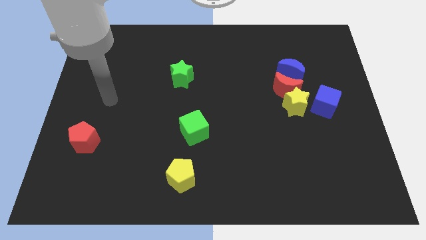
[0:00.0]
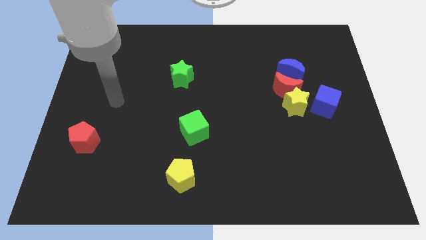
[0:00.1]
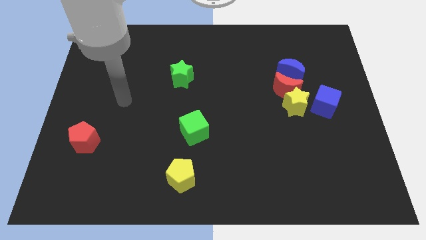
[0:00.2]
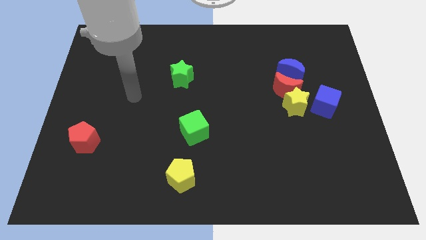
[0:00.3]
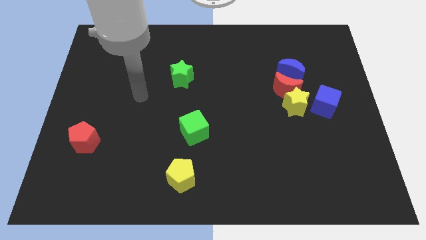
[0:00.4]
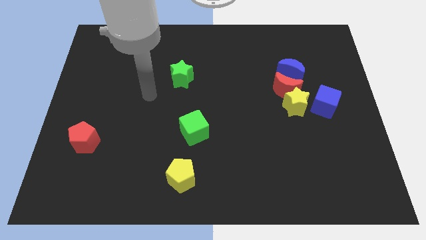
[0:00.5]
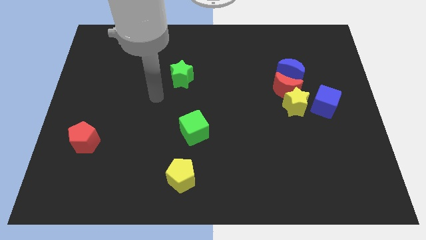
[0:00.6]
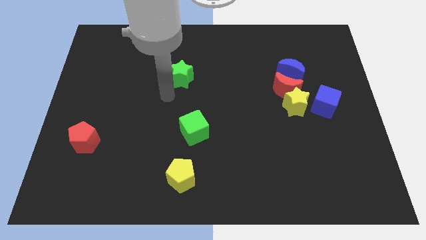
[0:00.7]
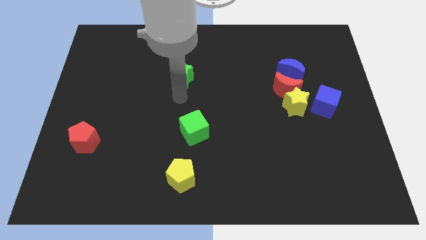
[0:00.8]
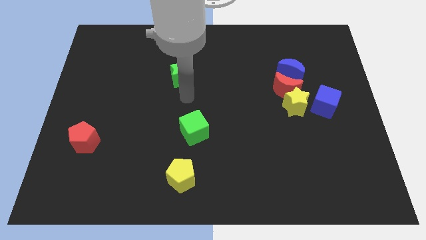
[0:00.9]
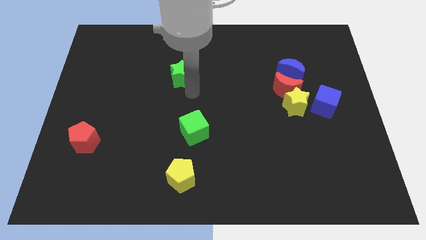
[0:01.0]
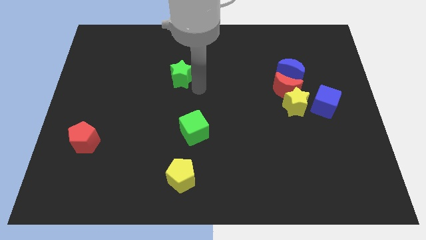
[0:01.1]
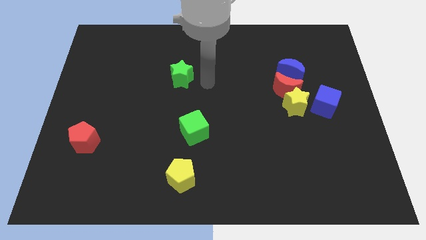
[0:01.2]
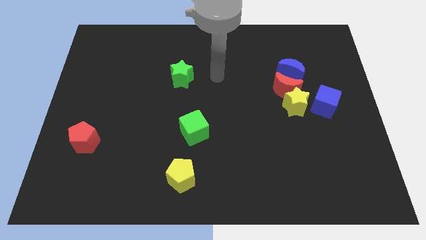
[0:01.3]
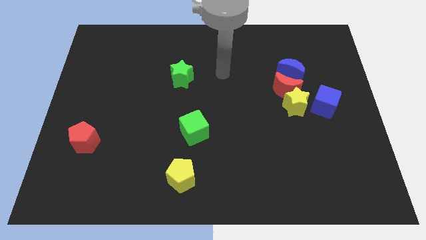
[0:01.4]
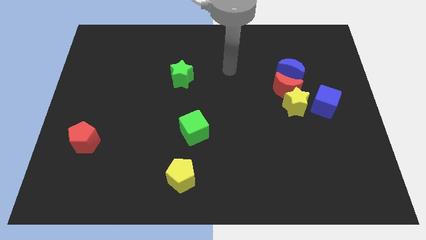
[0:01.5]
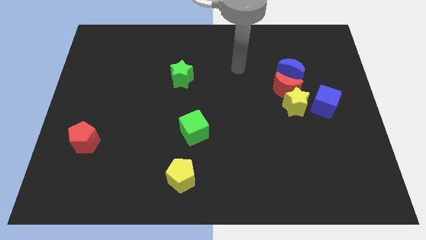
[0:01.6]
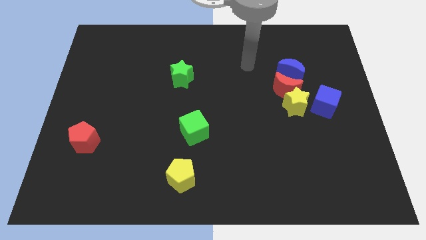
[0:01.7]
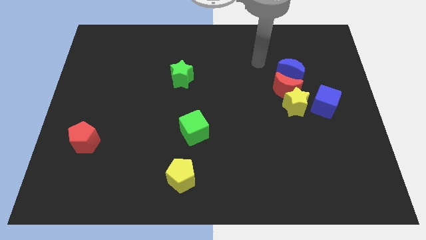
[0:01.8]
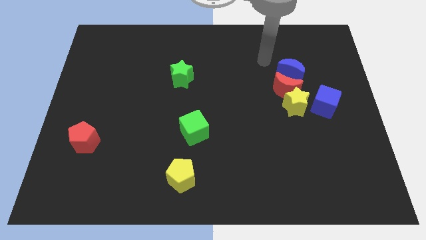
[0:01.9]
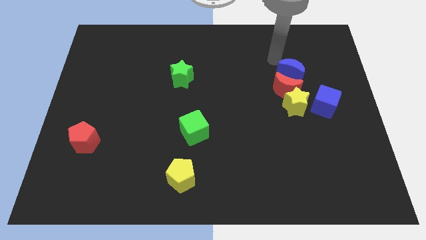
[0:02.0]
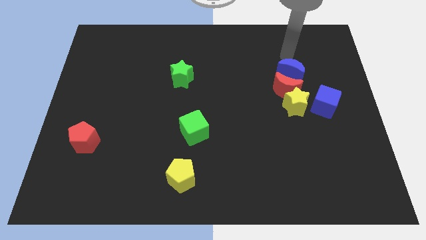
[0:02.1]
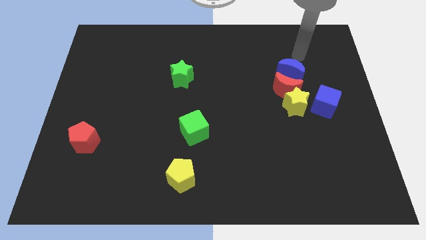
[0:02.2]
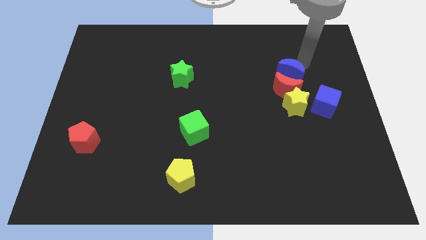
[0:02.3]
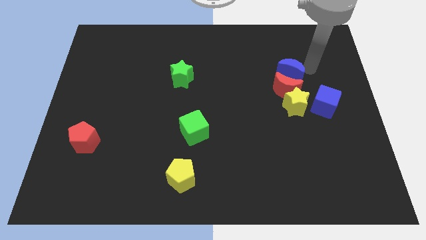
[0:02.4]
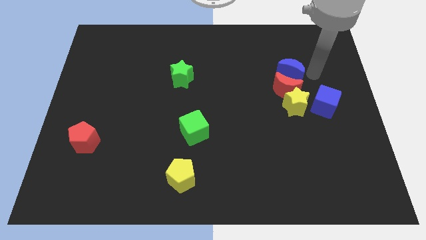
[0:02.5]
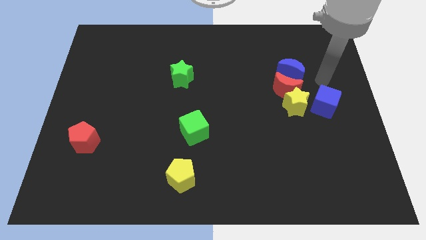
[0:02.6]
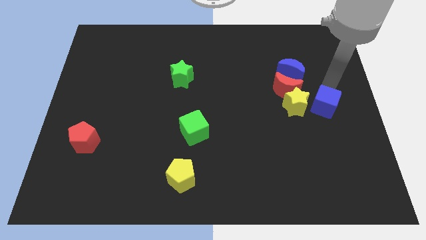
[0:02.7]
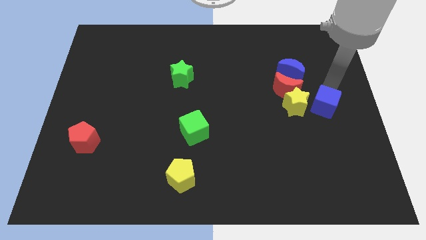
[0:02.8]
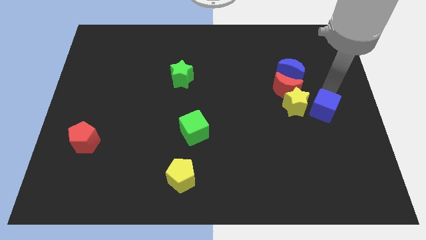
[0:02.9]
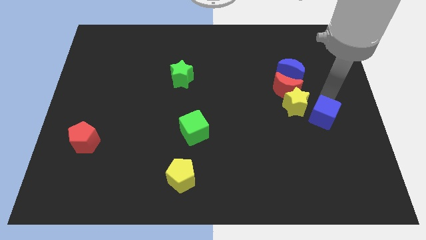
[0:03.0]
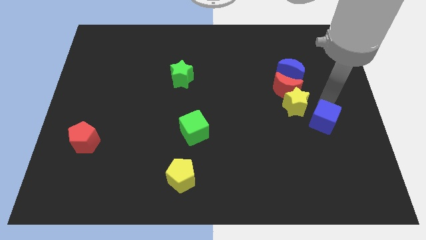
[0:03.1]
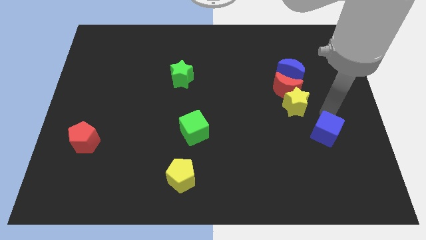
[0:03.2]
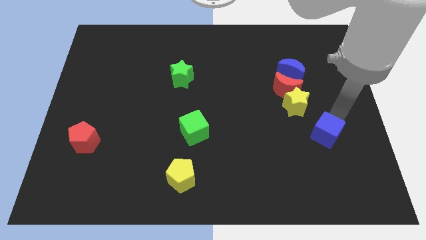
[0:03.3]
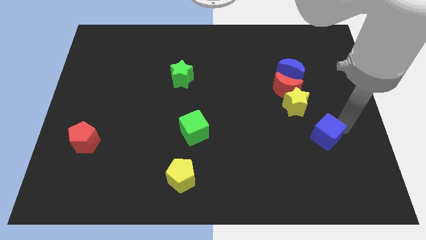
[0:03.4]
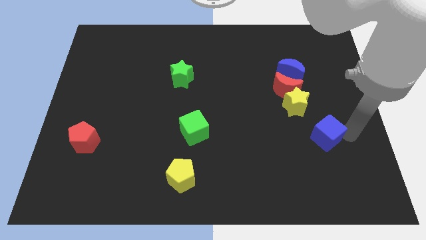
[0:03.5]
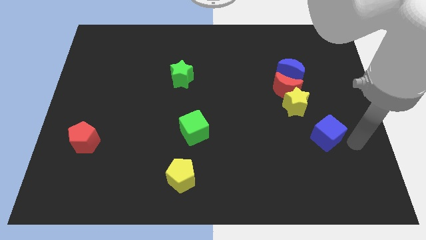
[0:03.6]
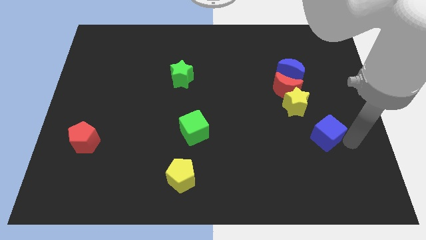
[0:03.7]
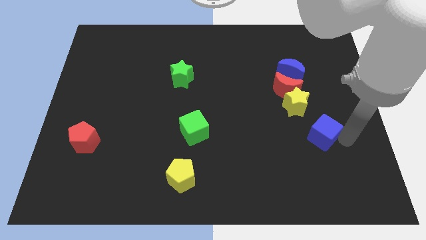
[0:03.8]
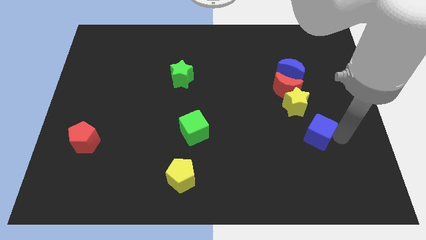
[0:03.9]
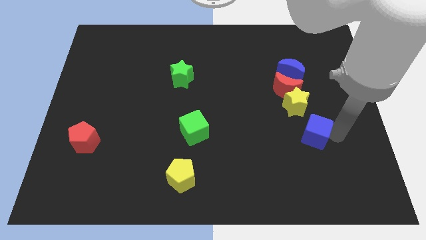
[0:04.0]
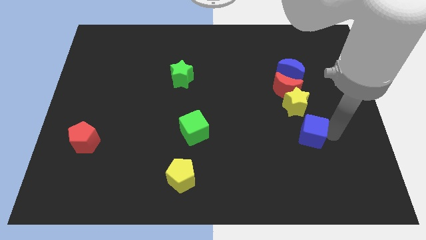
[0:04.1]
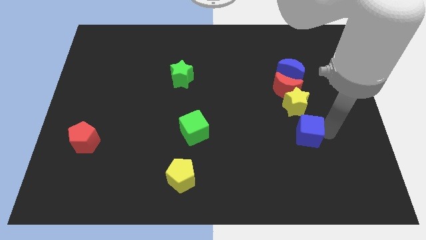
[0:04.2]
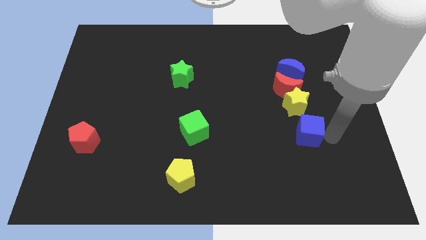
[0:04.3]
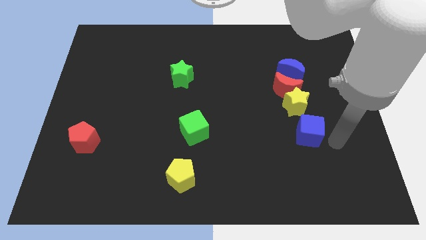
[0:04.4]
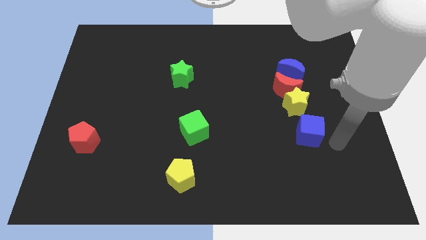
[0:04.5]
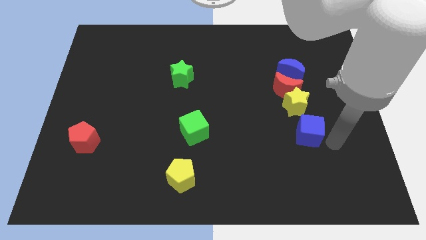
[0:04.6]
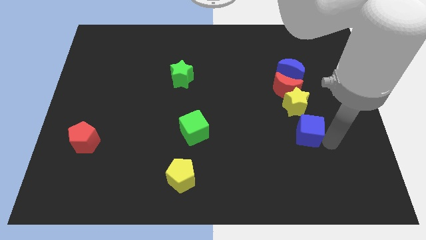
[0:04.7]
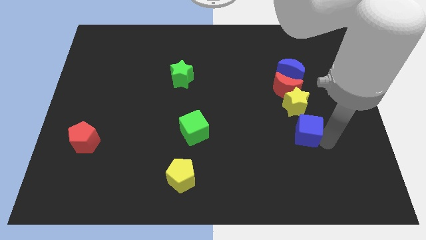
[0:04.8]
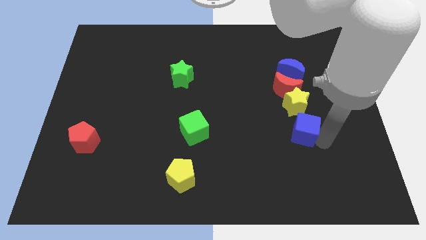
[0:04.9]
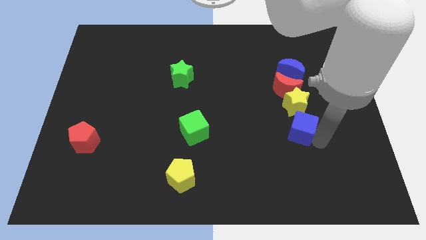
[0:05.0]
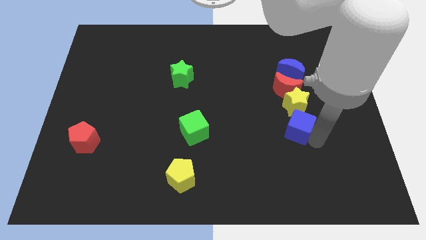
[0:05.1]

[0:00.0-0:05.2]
move the blue cube to the bottom left of the yellow star

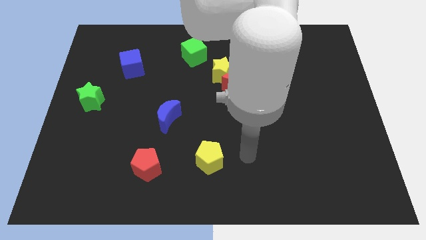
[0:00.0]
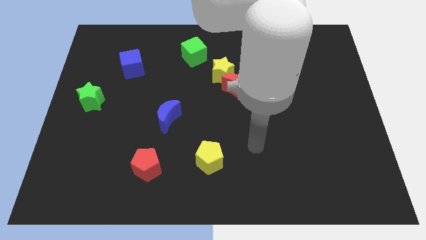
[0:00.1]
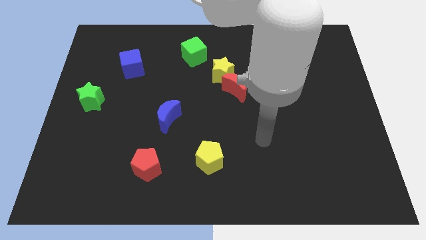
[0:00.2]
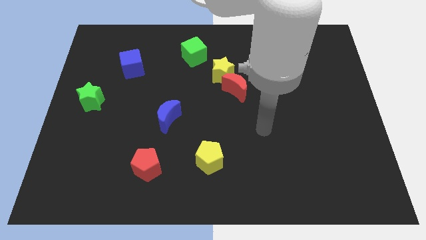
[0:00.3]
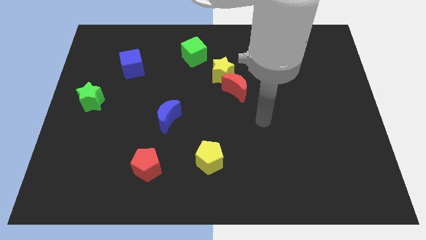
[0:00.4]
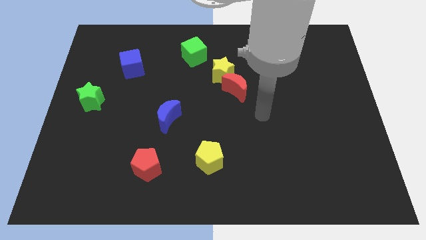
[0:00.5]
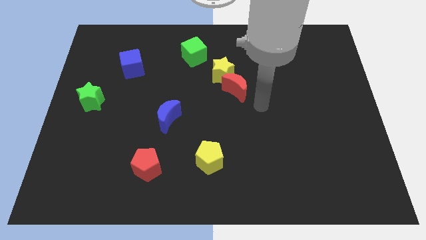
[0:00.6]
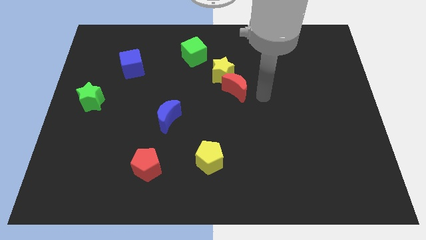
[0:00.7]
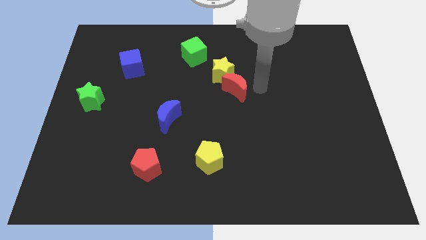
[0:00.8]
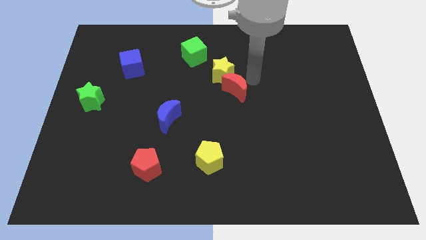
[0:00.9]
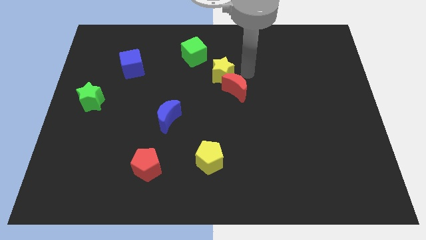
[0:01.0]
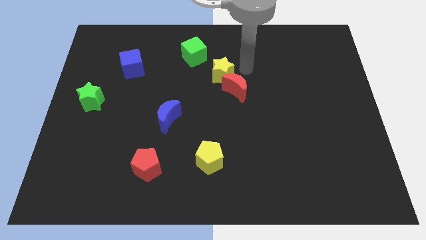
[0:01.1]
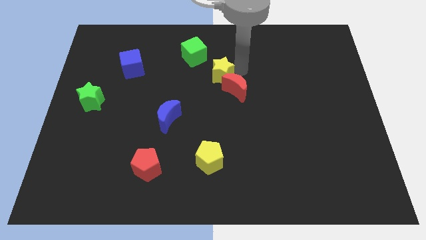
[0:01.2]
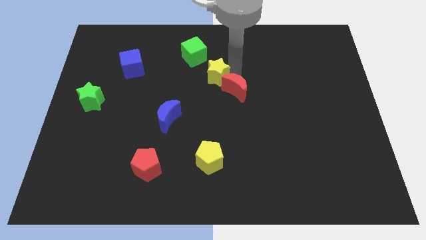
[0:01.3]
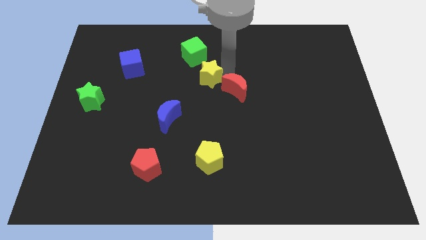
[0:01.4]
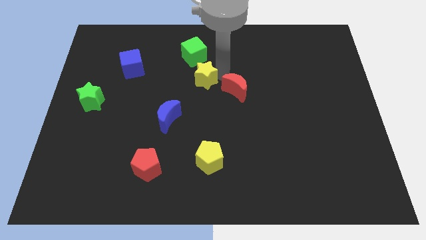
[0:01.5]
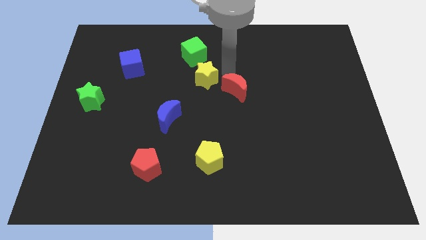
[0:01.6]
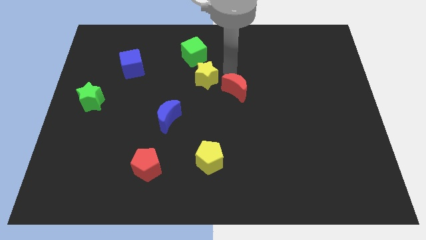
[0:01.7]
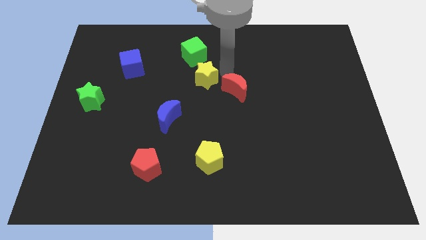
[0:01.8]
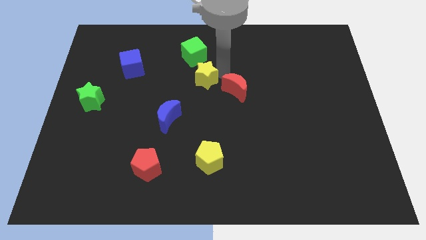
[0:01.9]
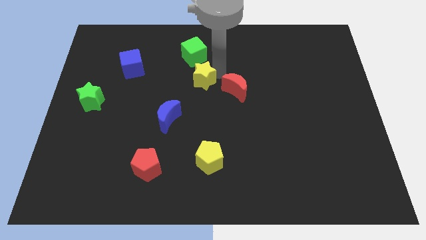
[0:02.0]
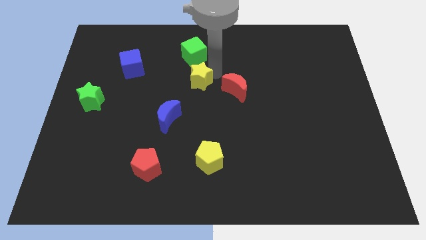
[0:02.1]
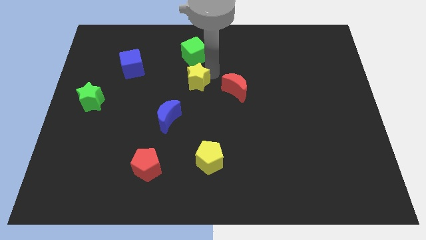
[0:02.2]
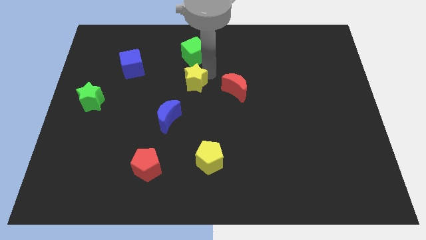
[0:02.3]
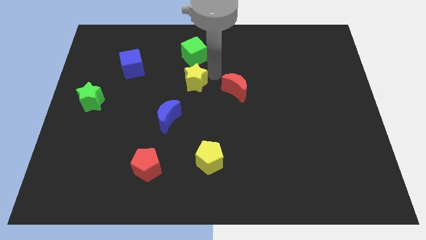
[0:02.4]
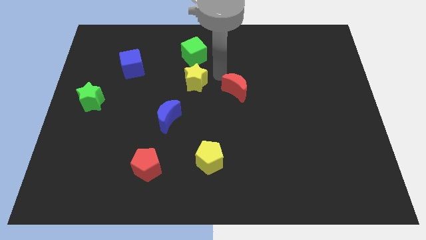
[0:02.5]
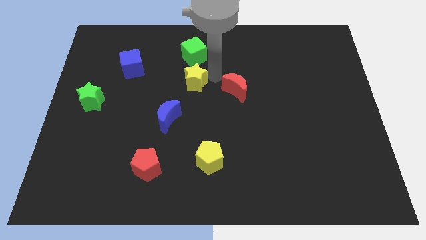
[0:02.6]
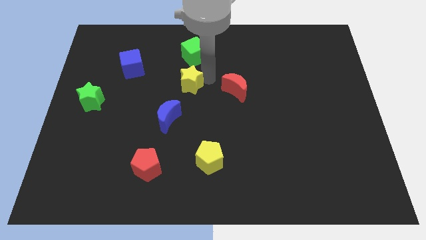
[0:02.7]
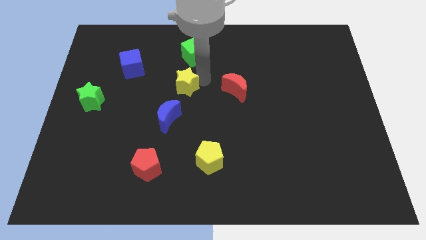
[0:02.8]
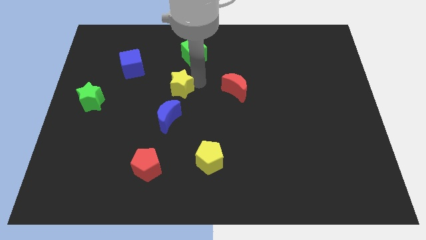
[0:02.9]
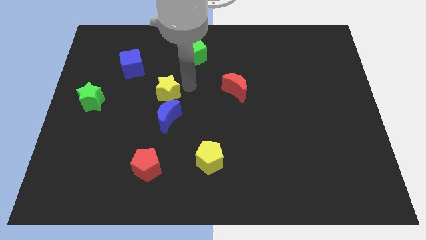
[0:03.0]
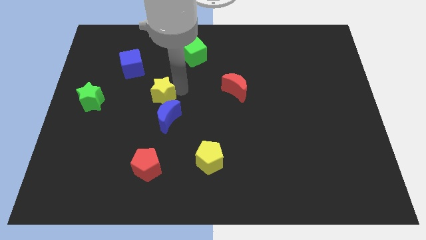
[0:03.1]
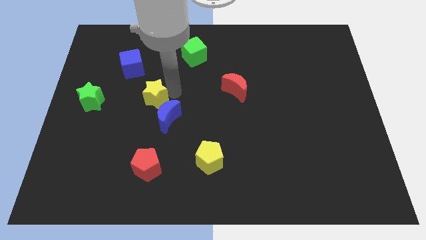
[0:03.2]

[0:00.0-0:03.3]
put the yellow star right of the green star
